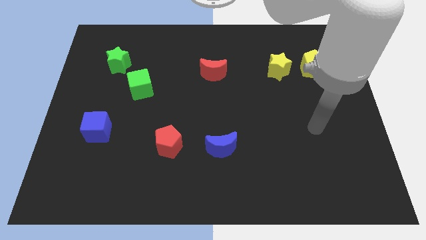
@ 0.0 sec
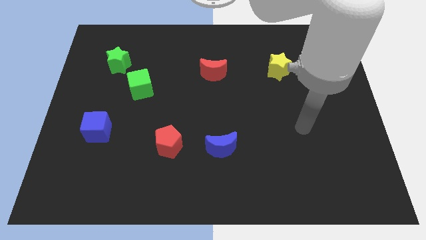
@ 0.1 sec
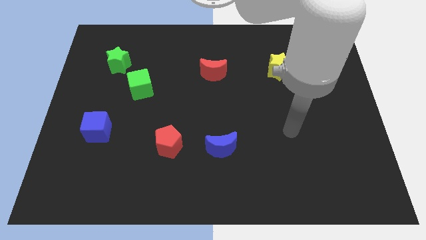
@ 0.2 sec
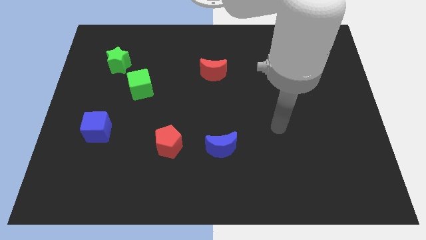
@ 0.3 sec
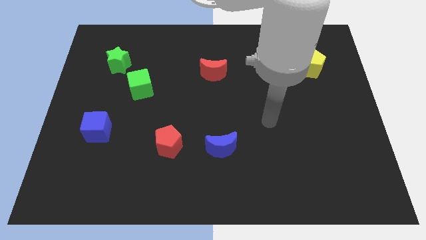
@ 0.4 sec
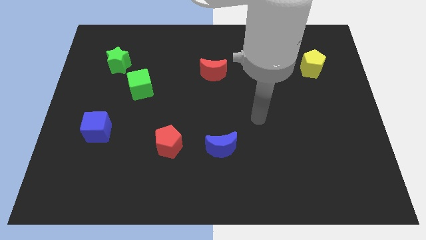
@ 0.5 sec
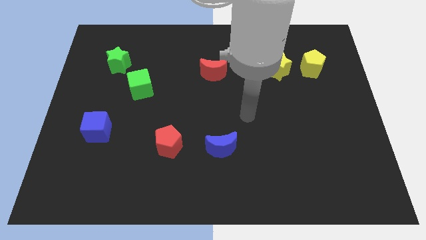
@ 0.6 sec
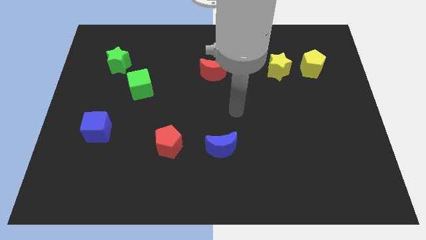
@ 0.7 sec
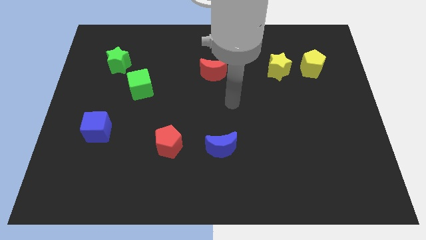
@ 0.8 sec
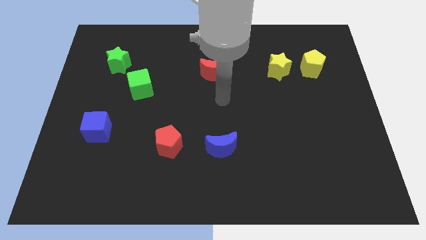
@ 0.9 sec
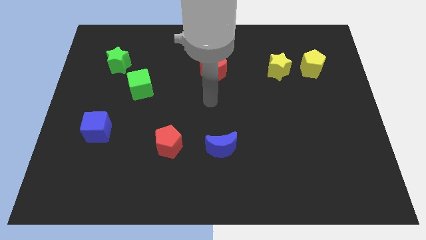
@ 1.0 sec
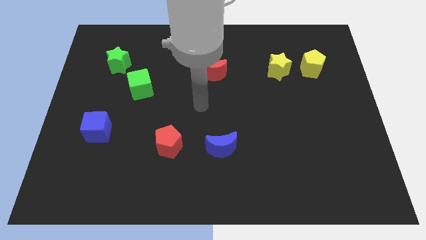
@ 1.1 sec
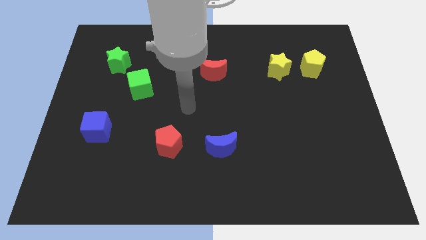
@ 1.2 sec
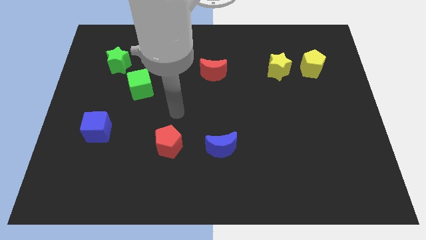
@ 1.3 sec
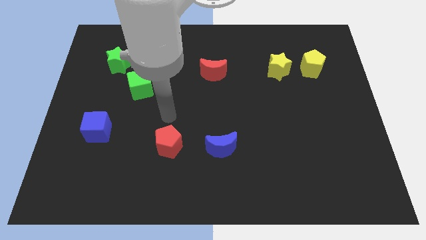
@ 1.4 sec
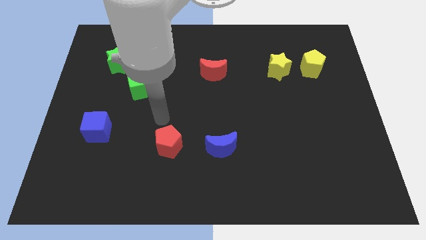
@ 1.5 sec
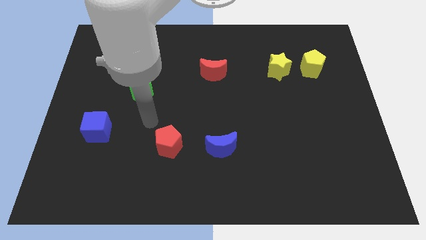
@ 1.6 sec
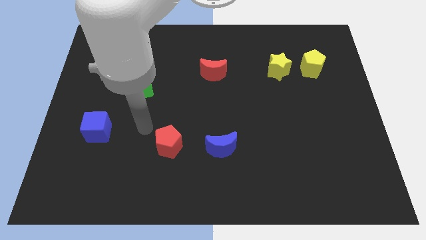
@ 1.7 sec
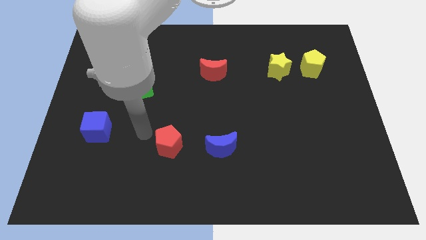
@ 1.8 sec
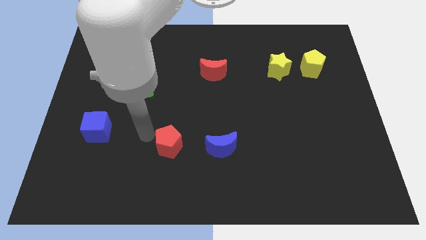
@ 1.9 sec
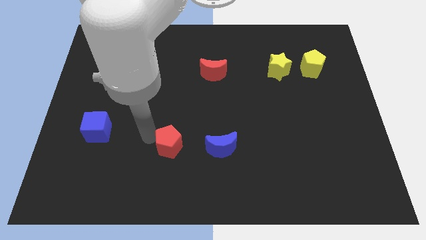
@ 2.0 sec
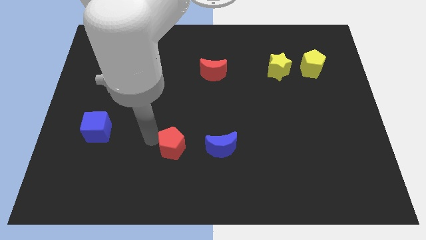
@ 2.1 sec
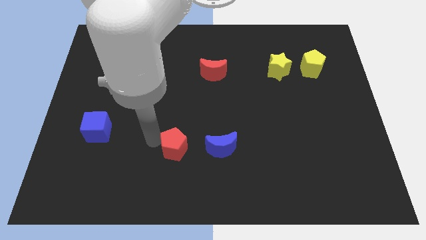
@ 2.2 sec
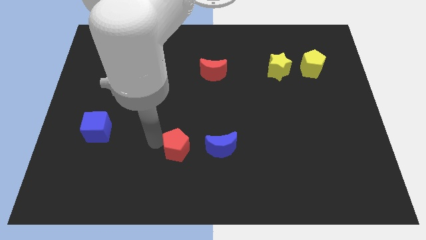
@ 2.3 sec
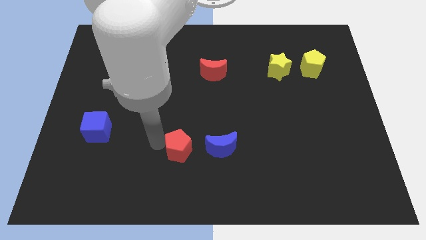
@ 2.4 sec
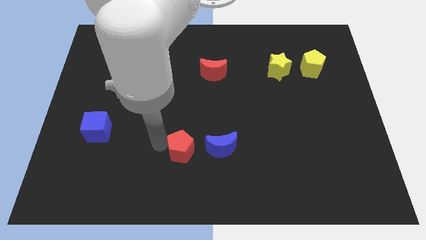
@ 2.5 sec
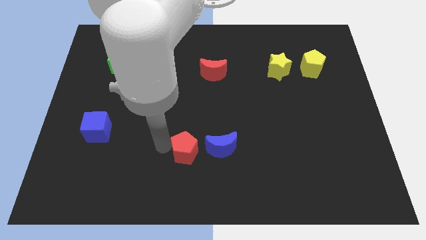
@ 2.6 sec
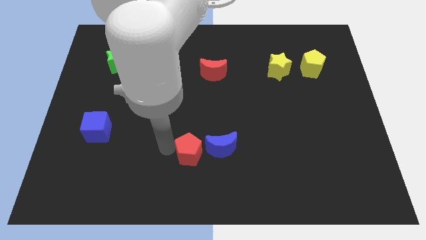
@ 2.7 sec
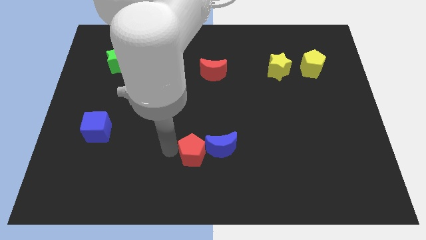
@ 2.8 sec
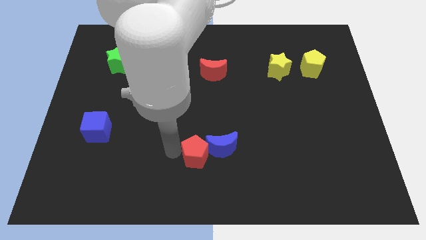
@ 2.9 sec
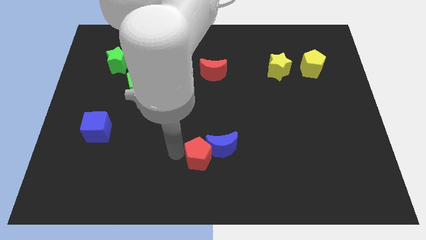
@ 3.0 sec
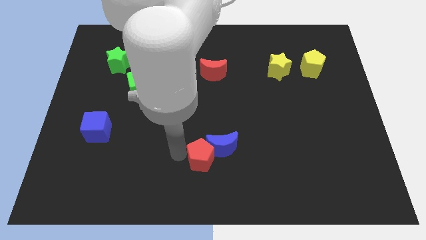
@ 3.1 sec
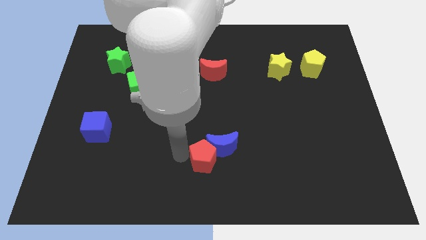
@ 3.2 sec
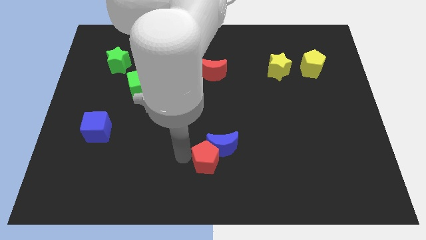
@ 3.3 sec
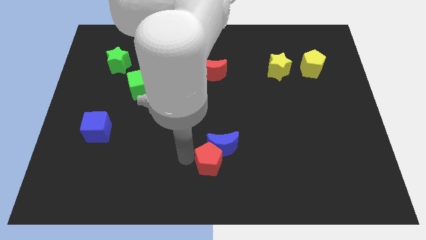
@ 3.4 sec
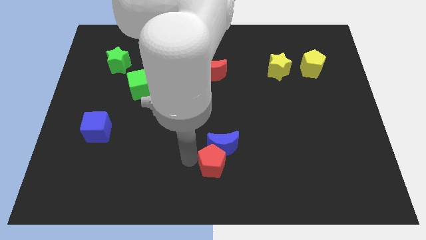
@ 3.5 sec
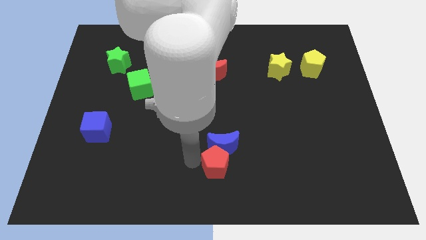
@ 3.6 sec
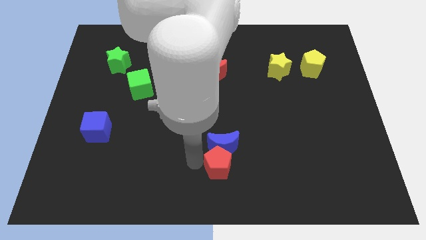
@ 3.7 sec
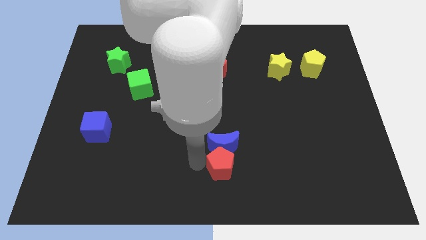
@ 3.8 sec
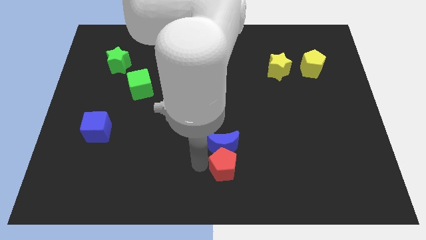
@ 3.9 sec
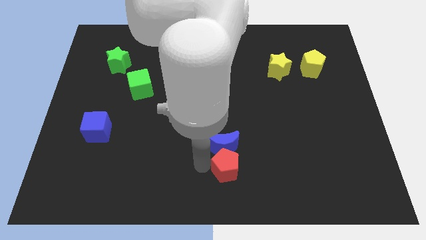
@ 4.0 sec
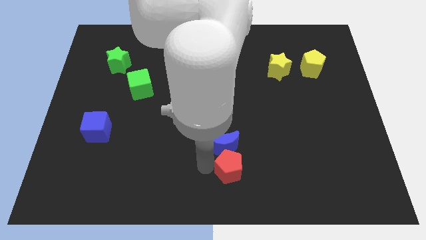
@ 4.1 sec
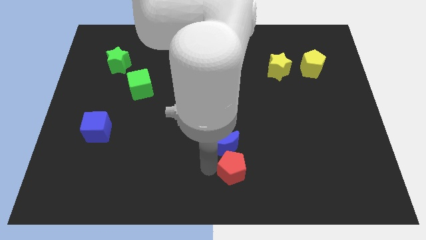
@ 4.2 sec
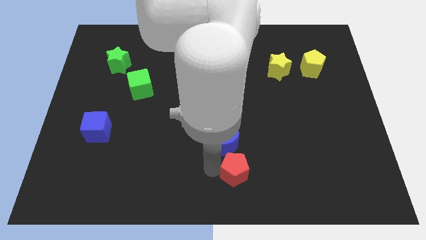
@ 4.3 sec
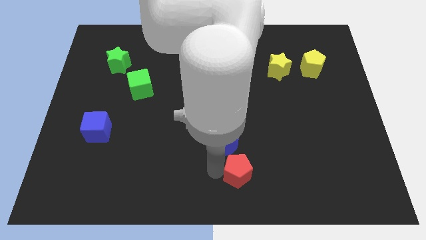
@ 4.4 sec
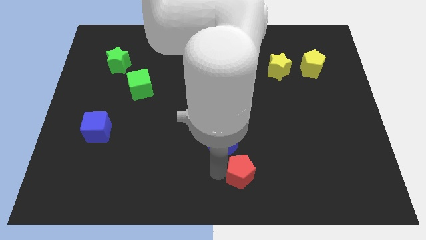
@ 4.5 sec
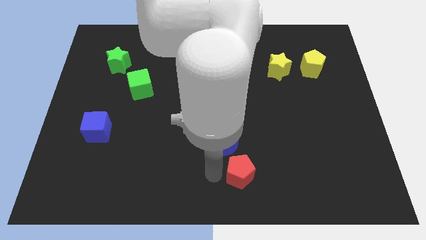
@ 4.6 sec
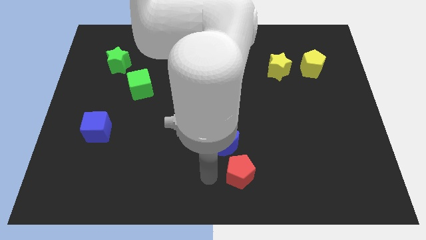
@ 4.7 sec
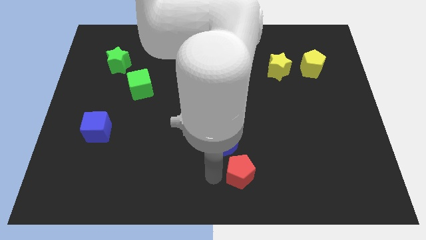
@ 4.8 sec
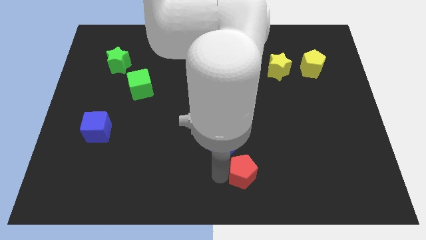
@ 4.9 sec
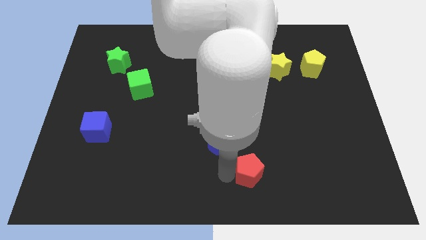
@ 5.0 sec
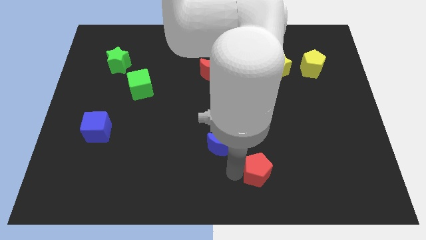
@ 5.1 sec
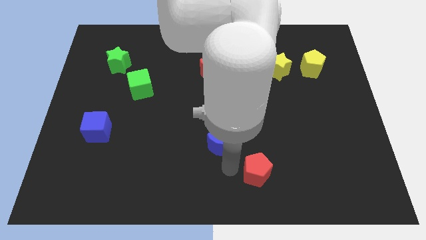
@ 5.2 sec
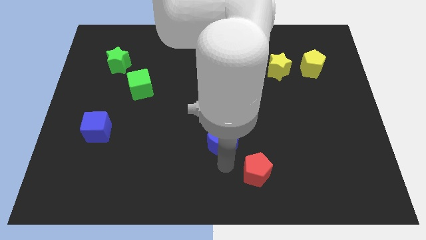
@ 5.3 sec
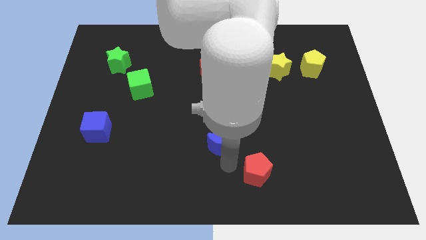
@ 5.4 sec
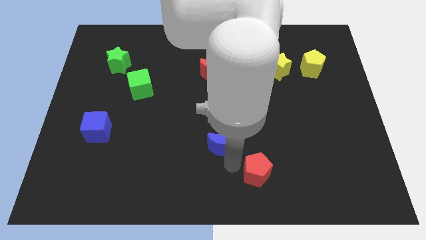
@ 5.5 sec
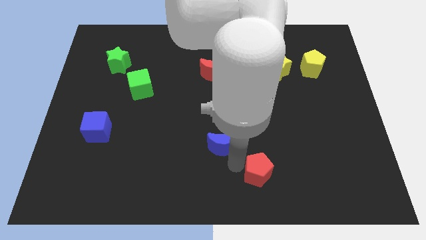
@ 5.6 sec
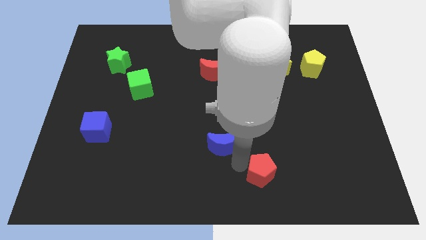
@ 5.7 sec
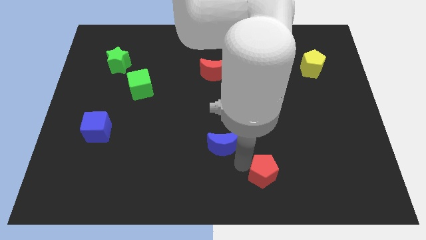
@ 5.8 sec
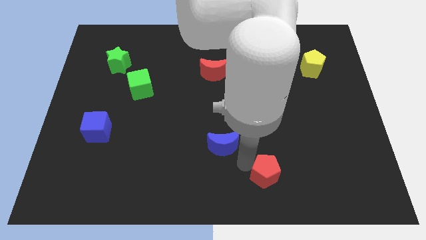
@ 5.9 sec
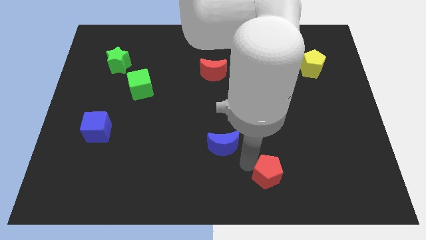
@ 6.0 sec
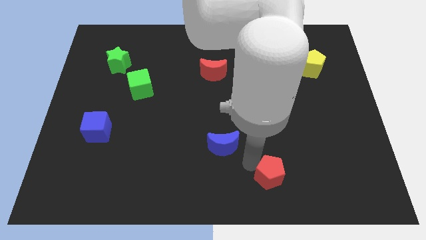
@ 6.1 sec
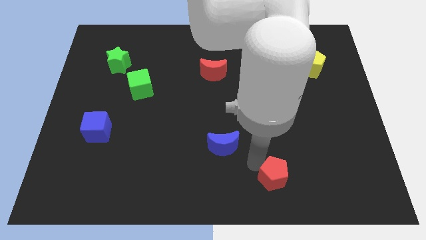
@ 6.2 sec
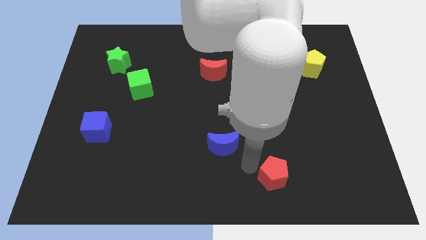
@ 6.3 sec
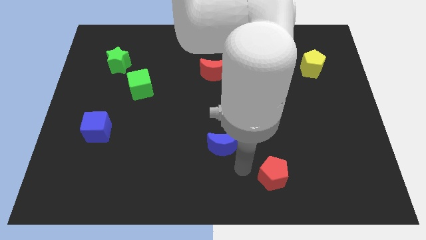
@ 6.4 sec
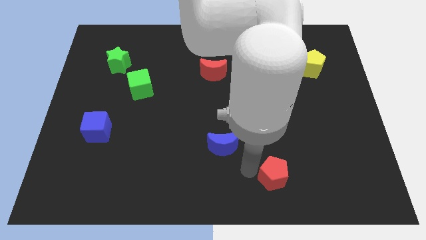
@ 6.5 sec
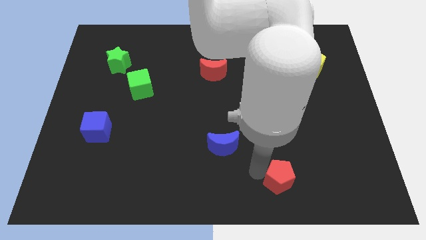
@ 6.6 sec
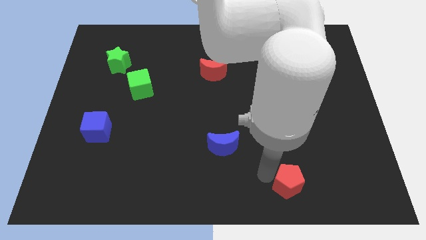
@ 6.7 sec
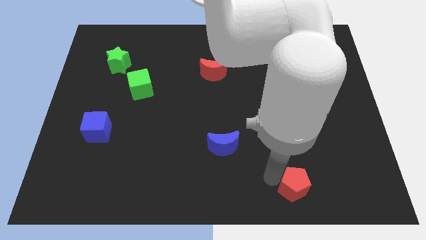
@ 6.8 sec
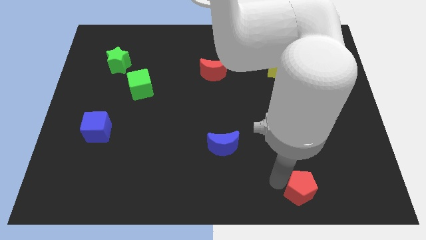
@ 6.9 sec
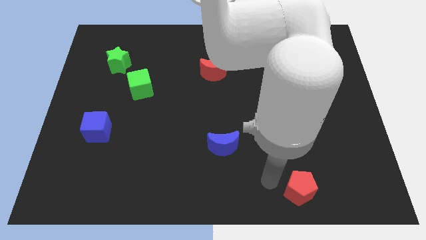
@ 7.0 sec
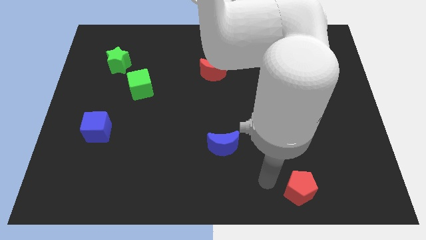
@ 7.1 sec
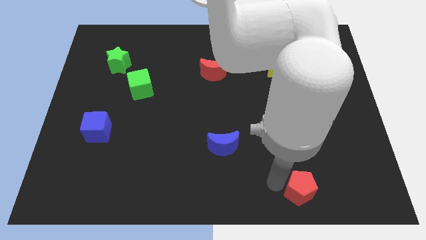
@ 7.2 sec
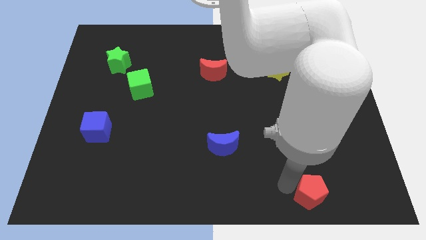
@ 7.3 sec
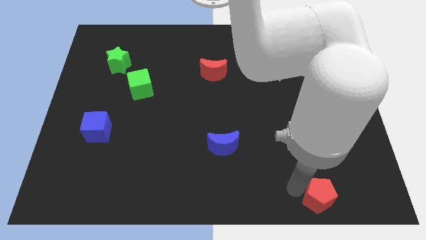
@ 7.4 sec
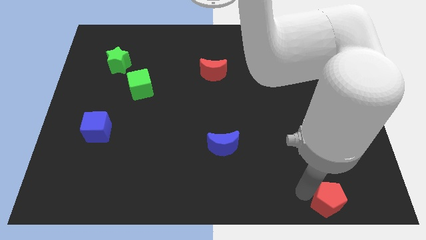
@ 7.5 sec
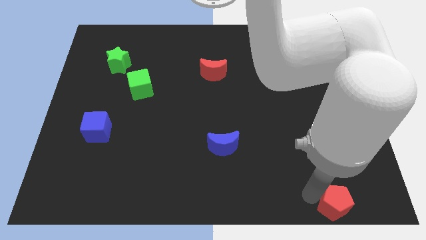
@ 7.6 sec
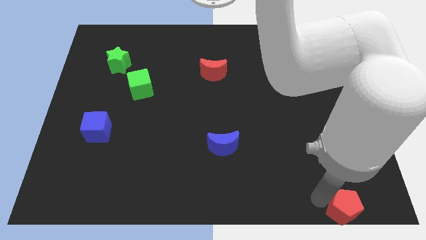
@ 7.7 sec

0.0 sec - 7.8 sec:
move the red pentagon to the bottom right of the board
